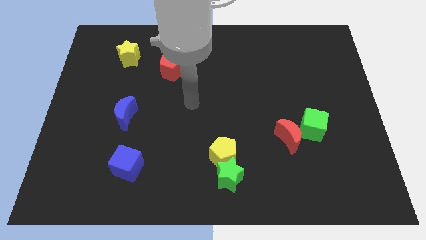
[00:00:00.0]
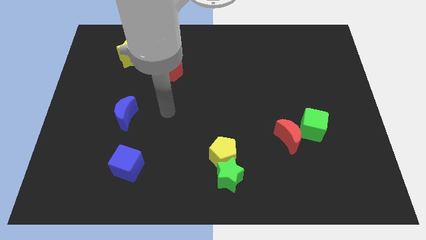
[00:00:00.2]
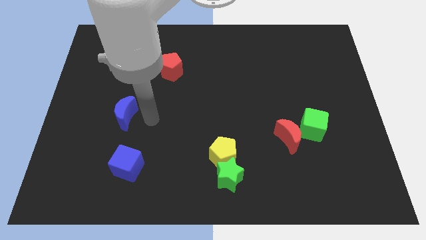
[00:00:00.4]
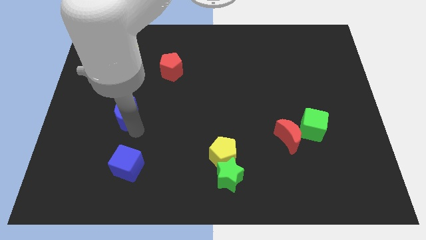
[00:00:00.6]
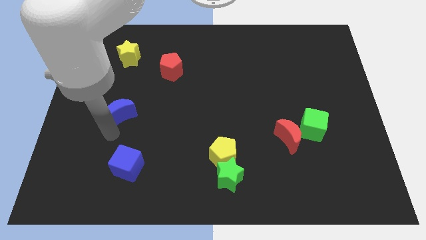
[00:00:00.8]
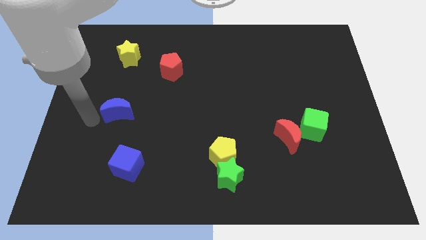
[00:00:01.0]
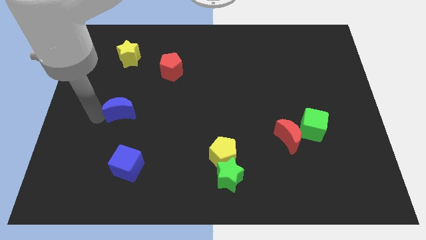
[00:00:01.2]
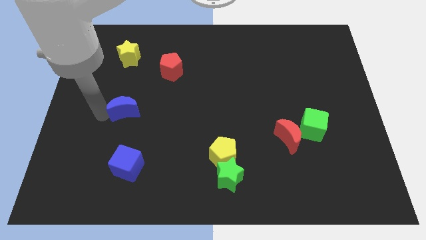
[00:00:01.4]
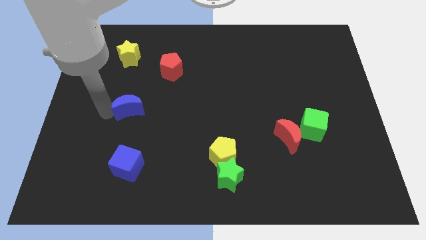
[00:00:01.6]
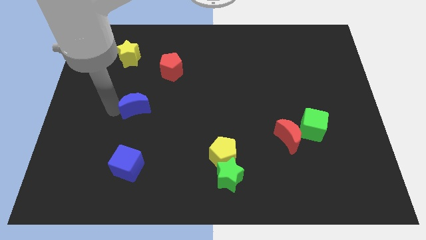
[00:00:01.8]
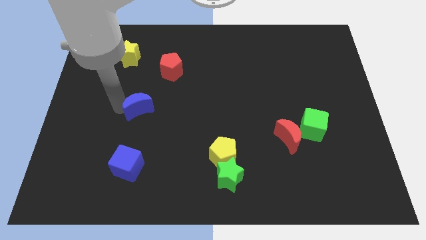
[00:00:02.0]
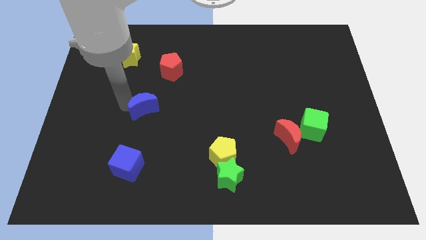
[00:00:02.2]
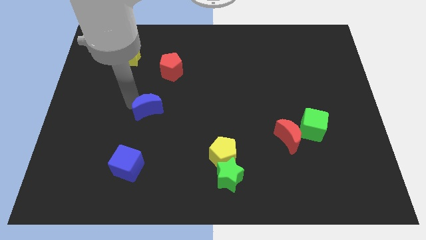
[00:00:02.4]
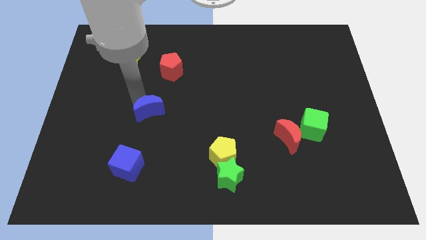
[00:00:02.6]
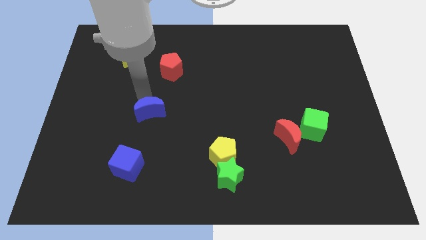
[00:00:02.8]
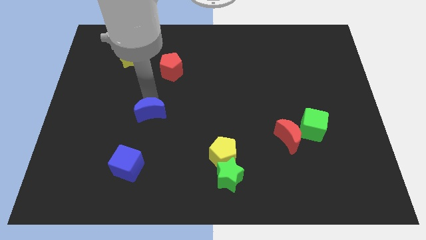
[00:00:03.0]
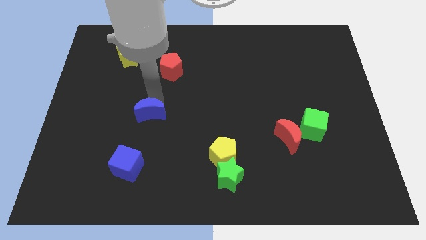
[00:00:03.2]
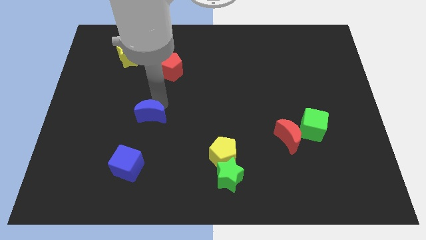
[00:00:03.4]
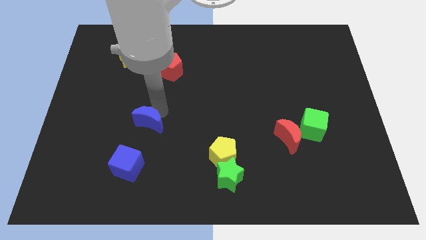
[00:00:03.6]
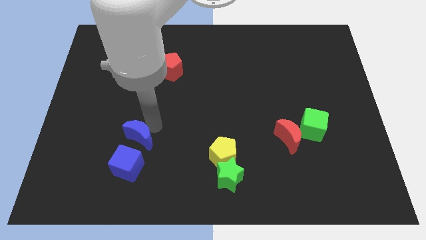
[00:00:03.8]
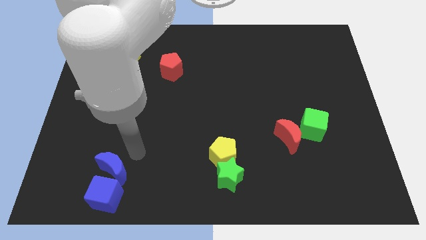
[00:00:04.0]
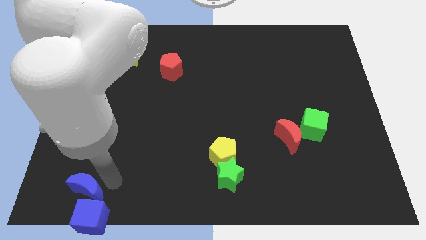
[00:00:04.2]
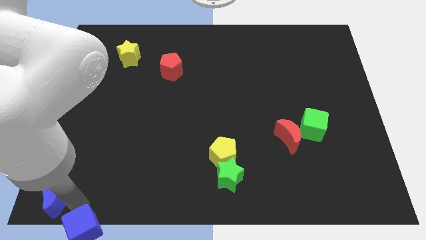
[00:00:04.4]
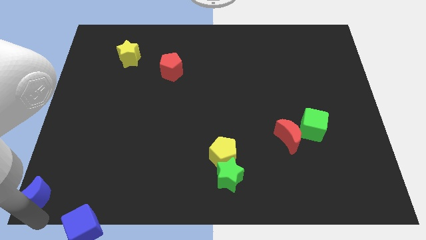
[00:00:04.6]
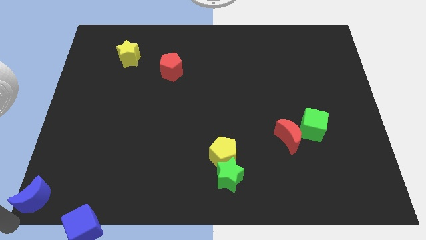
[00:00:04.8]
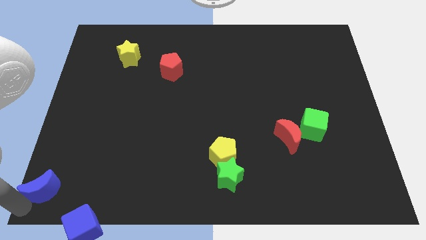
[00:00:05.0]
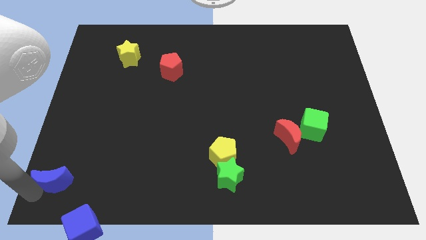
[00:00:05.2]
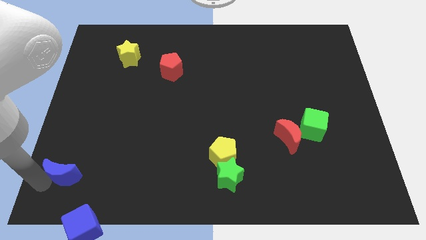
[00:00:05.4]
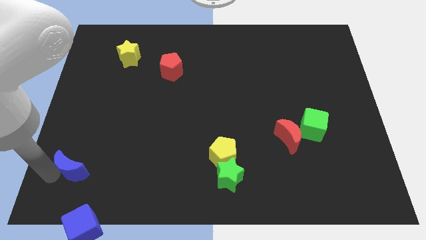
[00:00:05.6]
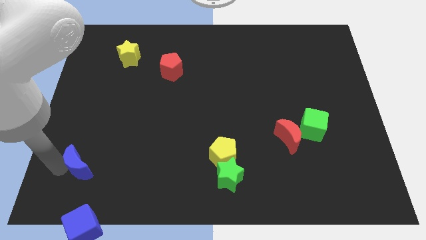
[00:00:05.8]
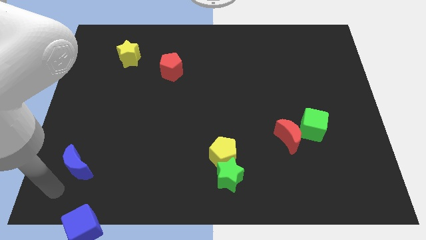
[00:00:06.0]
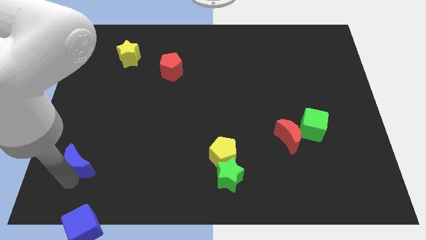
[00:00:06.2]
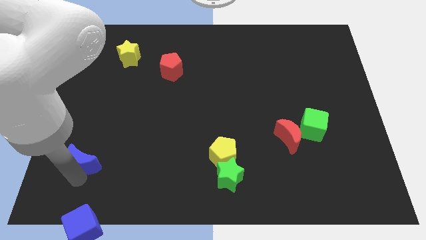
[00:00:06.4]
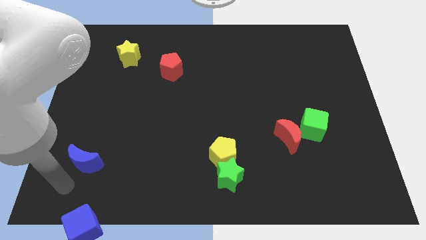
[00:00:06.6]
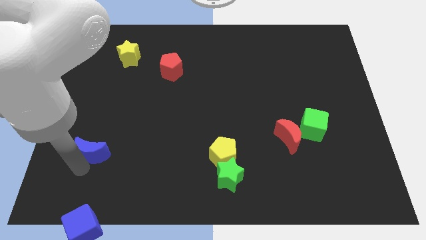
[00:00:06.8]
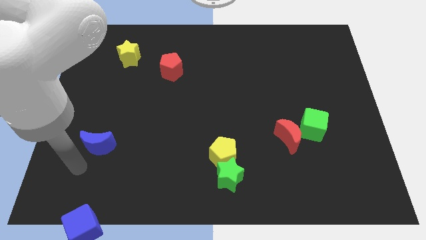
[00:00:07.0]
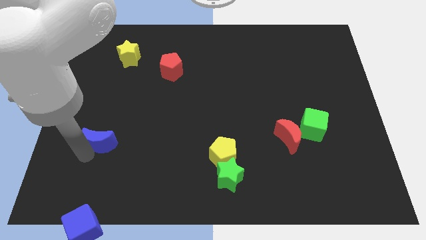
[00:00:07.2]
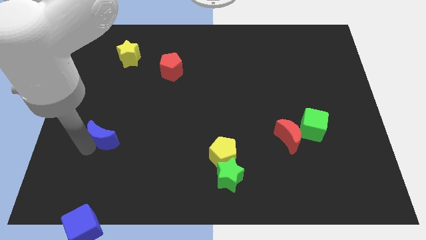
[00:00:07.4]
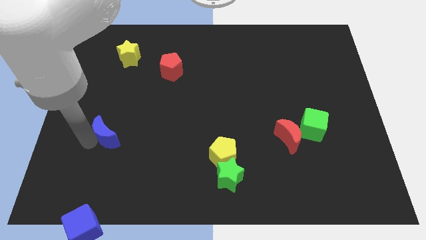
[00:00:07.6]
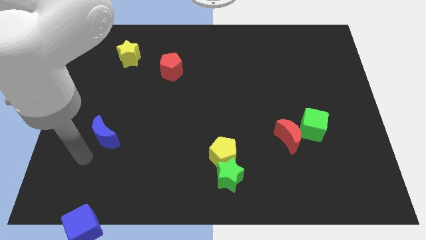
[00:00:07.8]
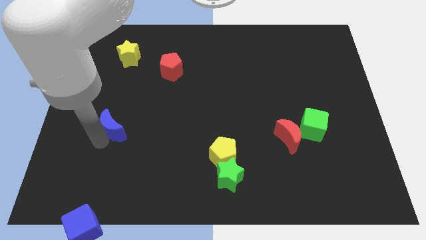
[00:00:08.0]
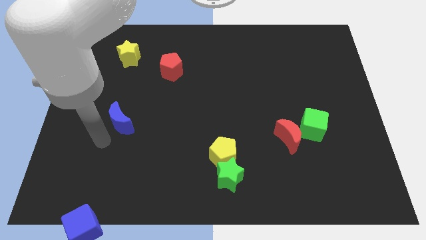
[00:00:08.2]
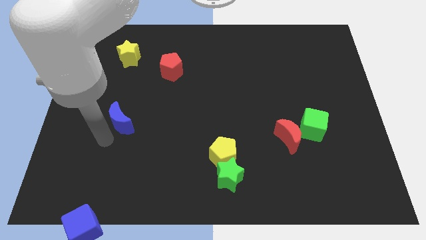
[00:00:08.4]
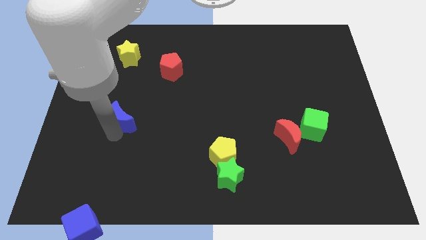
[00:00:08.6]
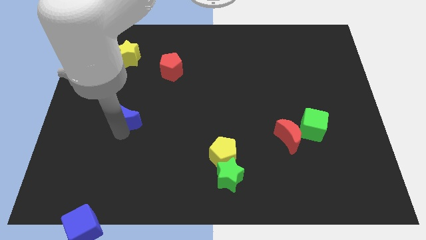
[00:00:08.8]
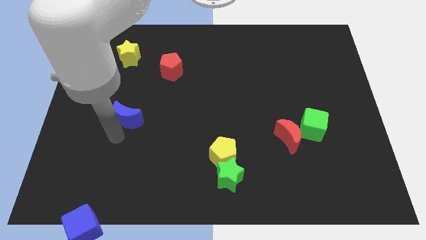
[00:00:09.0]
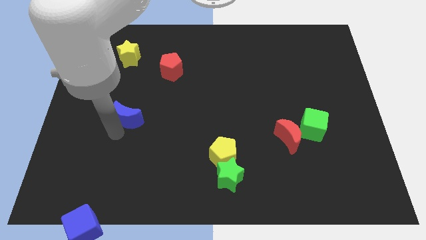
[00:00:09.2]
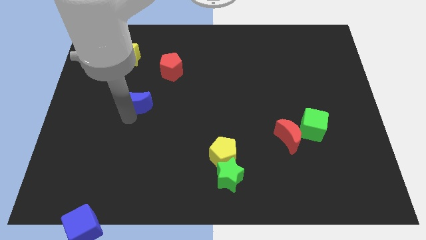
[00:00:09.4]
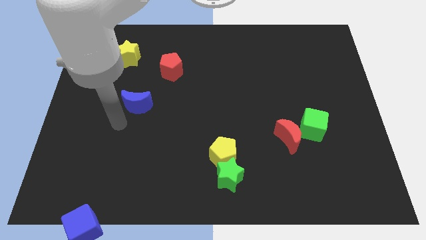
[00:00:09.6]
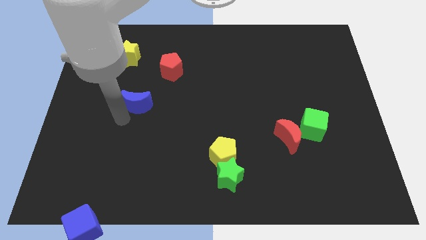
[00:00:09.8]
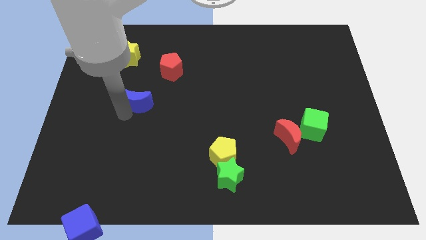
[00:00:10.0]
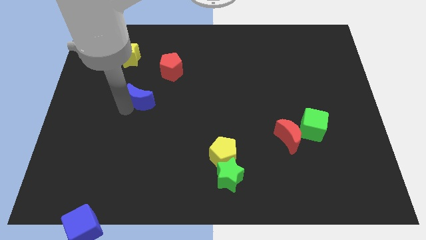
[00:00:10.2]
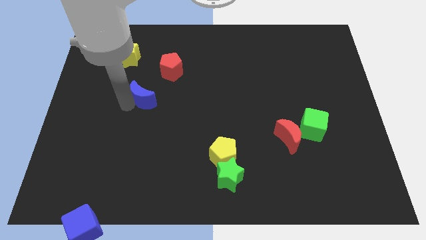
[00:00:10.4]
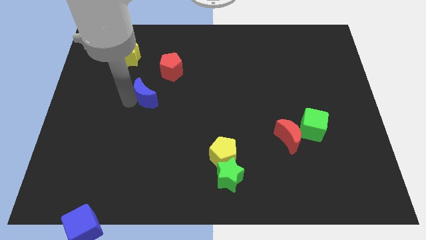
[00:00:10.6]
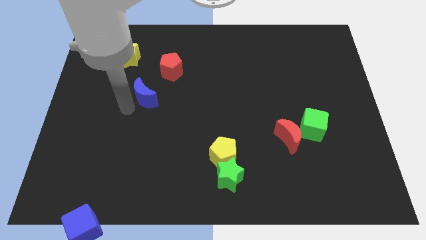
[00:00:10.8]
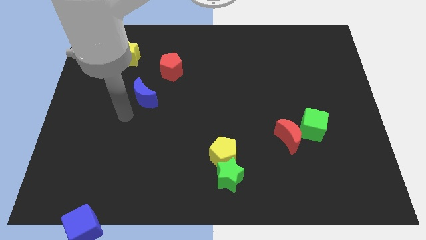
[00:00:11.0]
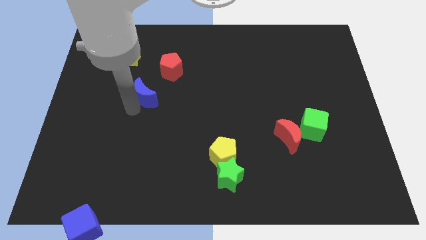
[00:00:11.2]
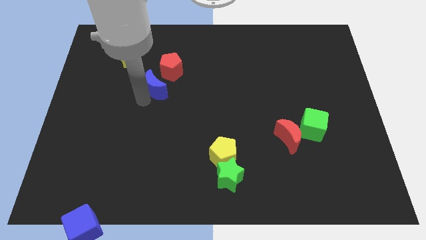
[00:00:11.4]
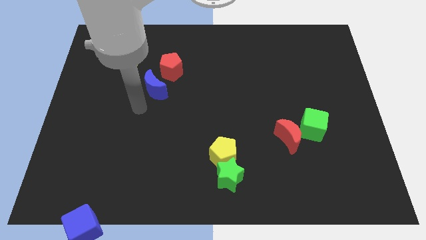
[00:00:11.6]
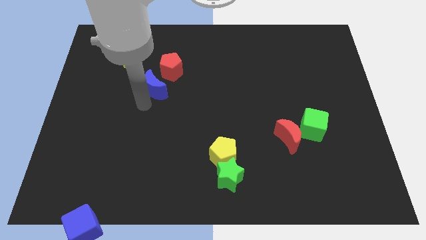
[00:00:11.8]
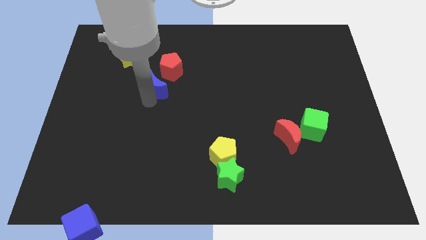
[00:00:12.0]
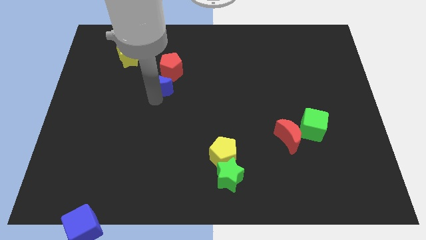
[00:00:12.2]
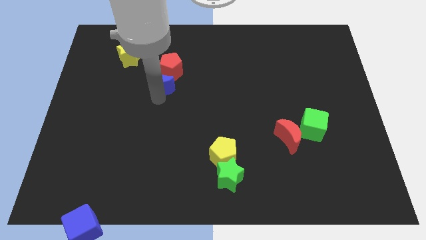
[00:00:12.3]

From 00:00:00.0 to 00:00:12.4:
push the blue moon to the red pentagon

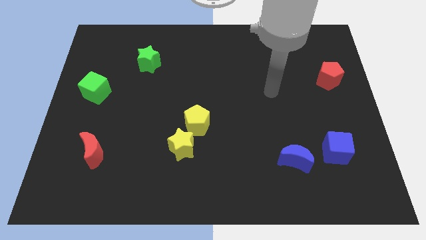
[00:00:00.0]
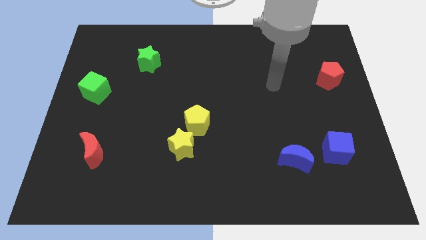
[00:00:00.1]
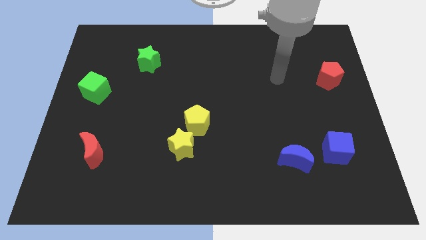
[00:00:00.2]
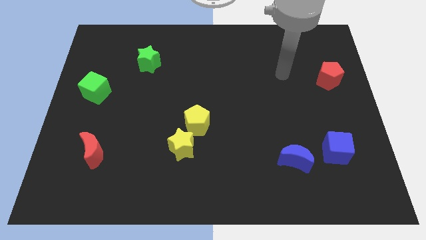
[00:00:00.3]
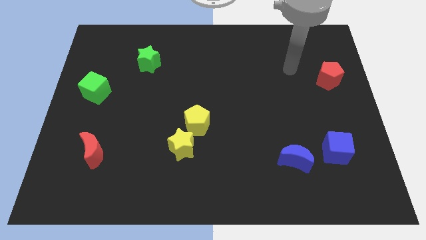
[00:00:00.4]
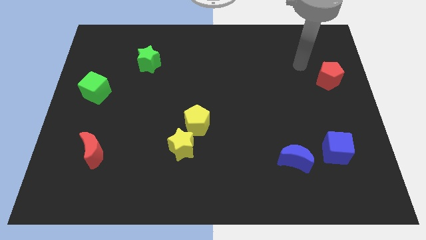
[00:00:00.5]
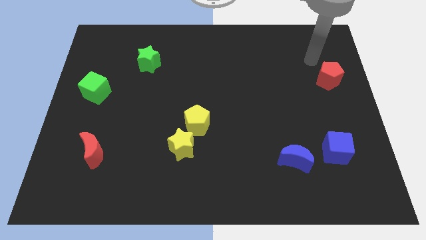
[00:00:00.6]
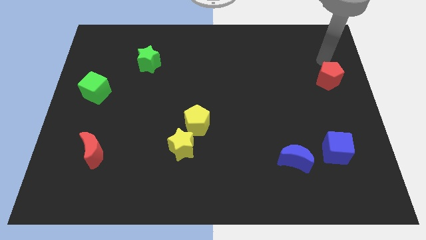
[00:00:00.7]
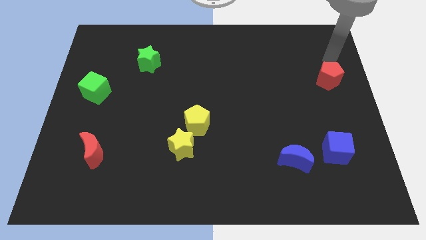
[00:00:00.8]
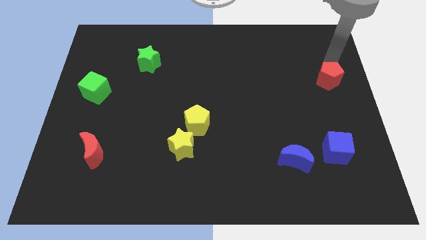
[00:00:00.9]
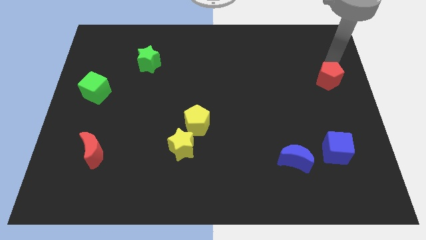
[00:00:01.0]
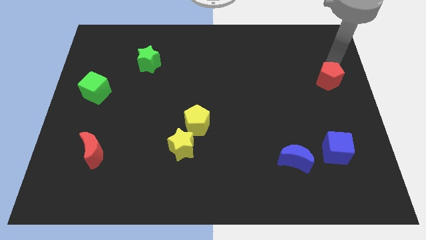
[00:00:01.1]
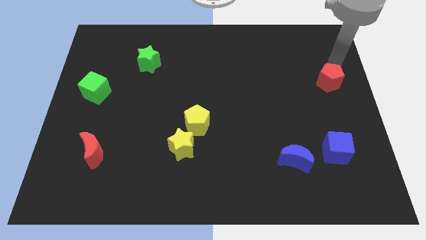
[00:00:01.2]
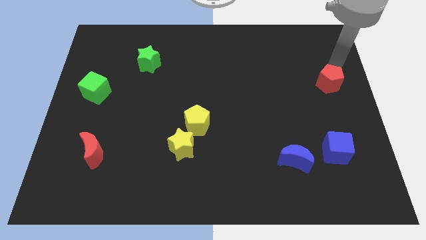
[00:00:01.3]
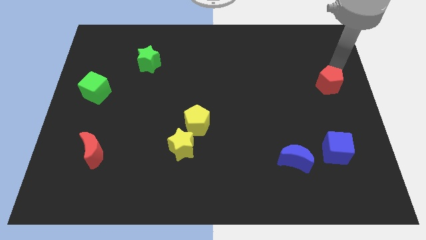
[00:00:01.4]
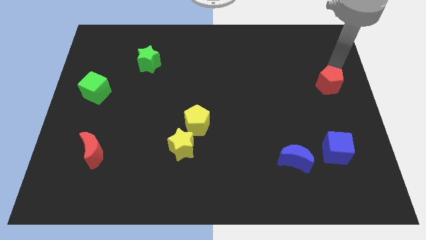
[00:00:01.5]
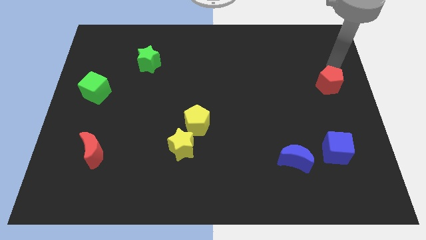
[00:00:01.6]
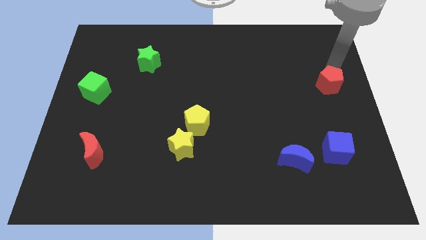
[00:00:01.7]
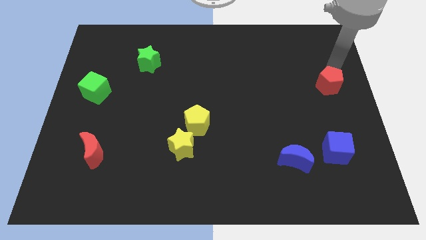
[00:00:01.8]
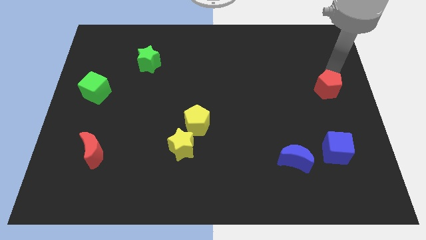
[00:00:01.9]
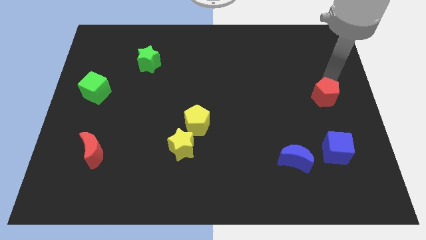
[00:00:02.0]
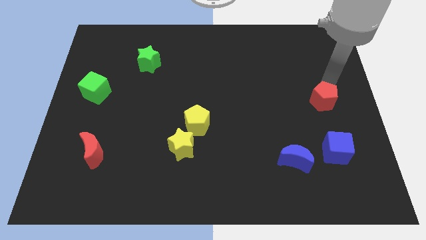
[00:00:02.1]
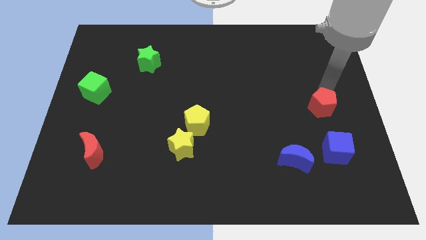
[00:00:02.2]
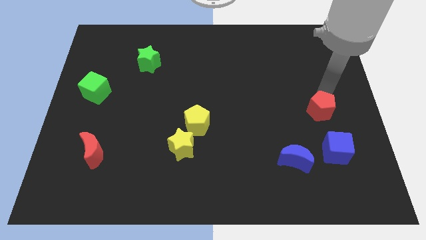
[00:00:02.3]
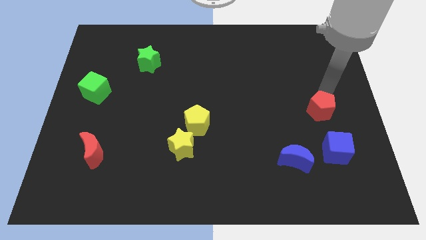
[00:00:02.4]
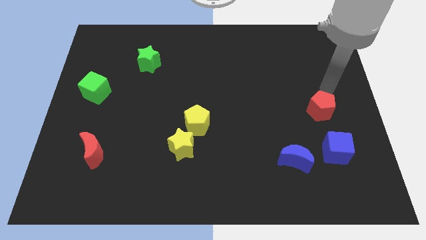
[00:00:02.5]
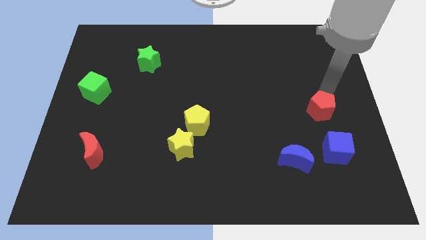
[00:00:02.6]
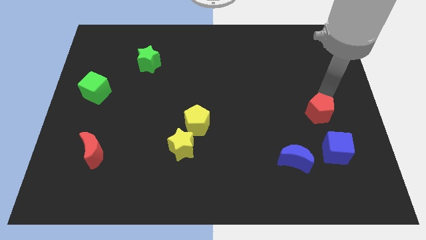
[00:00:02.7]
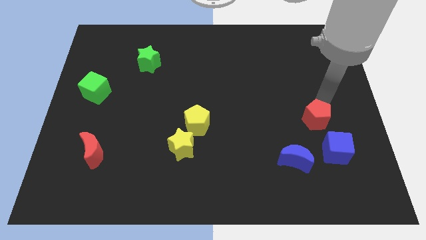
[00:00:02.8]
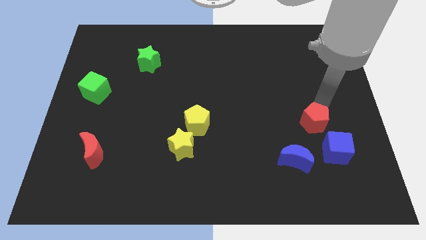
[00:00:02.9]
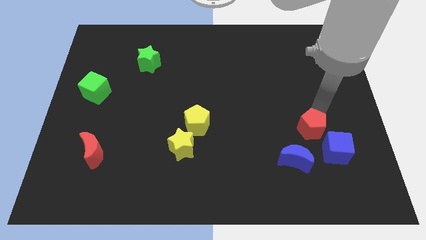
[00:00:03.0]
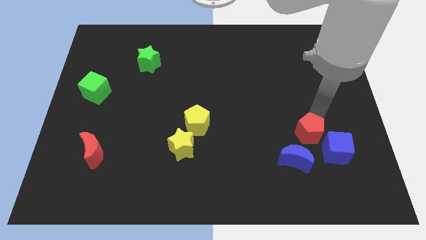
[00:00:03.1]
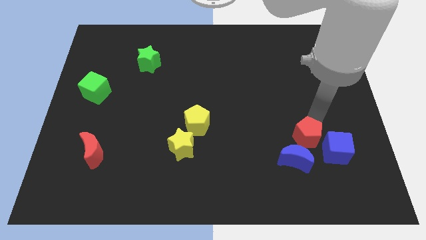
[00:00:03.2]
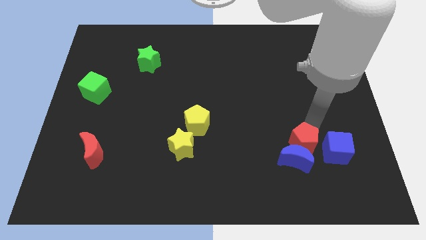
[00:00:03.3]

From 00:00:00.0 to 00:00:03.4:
put the red pentagon towards the blue moon
